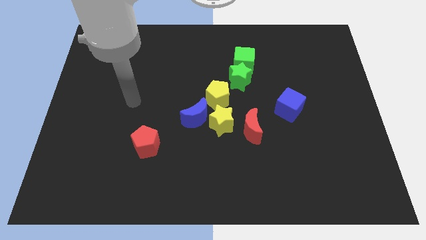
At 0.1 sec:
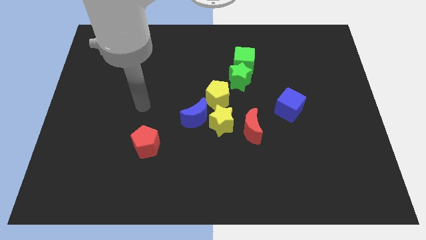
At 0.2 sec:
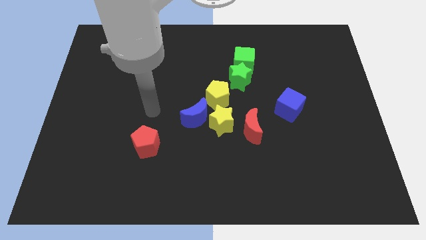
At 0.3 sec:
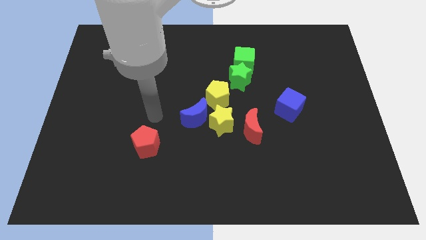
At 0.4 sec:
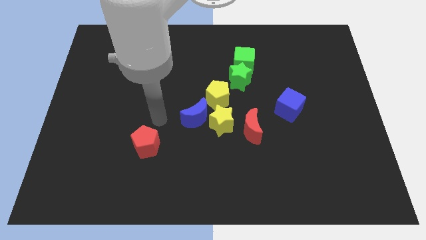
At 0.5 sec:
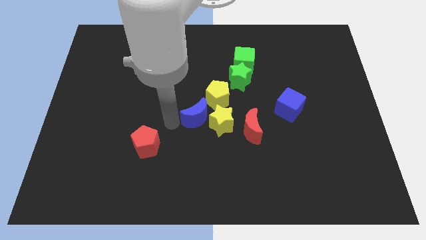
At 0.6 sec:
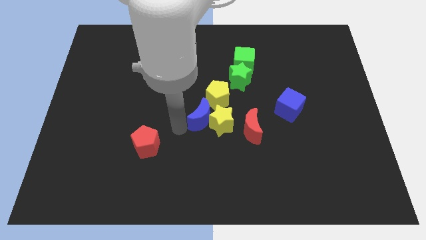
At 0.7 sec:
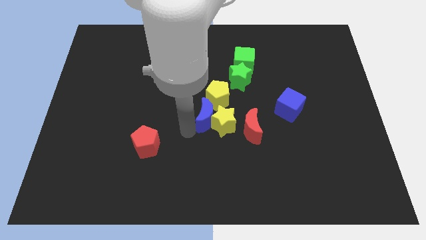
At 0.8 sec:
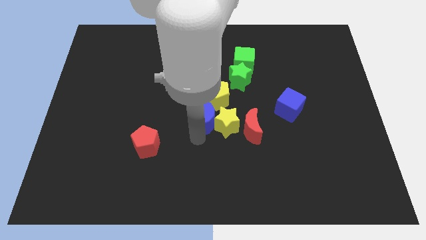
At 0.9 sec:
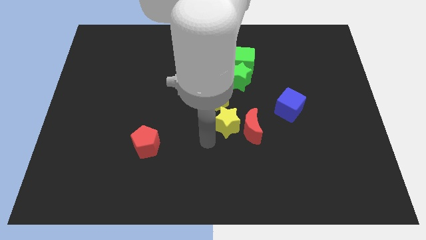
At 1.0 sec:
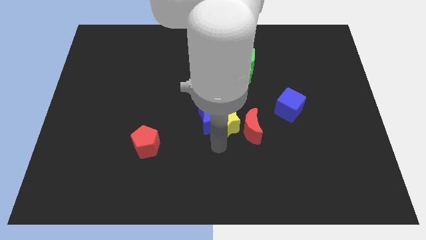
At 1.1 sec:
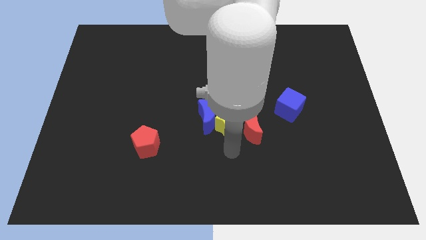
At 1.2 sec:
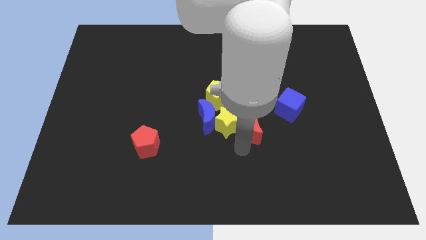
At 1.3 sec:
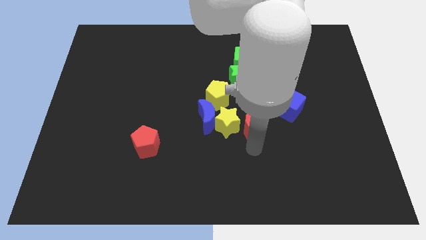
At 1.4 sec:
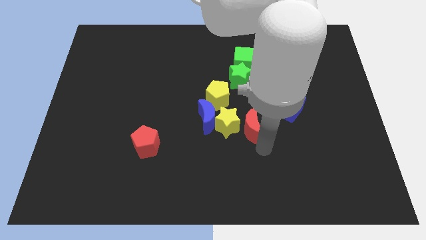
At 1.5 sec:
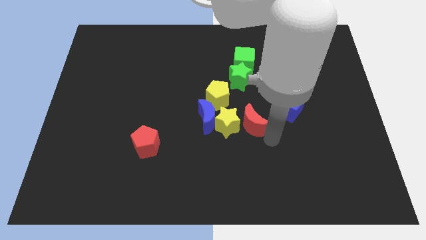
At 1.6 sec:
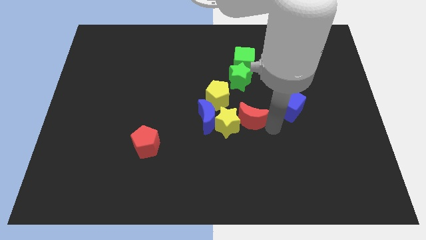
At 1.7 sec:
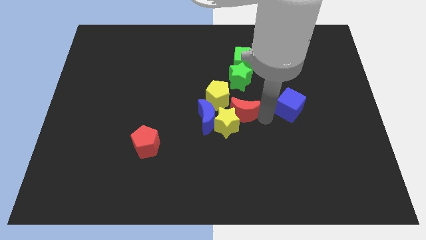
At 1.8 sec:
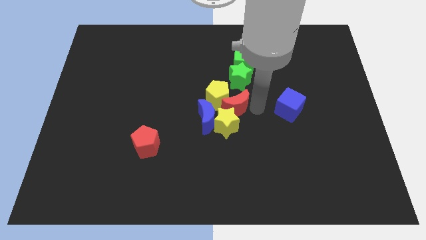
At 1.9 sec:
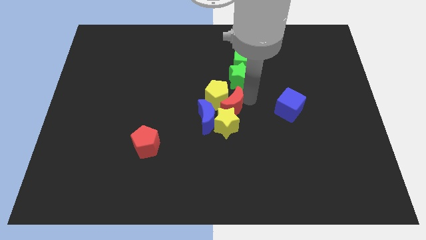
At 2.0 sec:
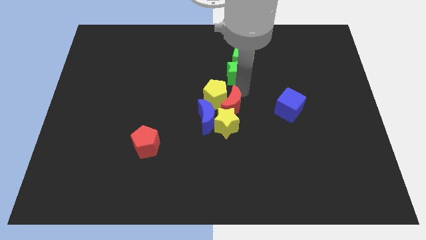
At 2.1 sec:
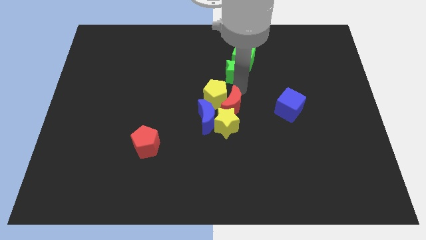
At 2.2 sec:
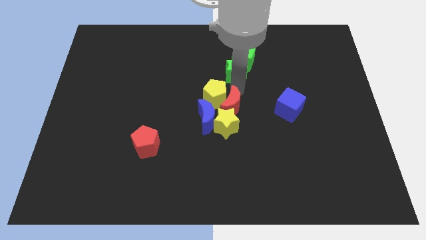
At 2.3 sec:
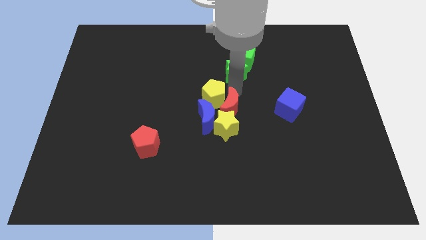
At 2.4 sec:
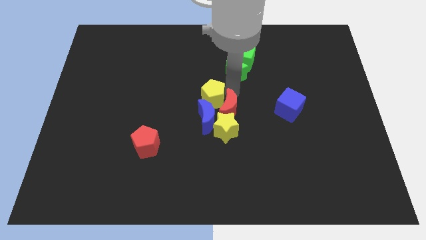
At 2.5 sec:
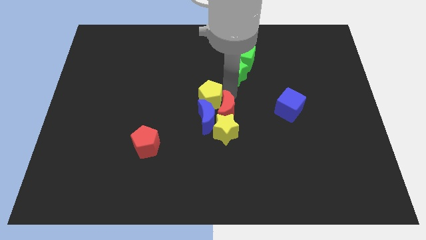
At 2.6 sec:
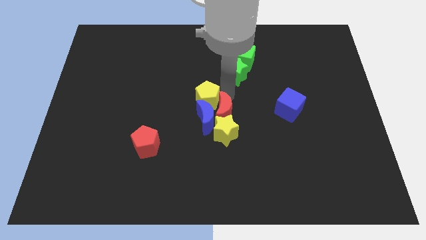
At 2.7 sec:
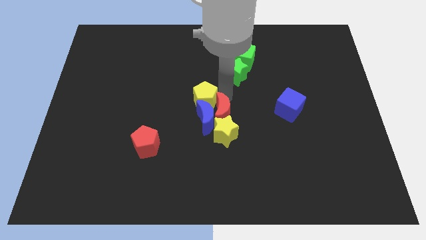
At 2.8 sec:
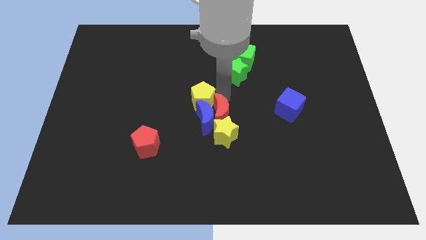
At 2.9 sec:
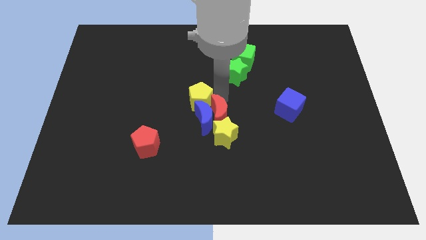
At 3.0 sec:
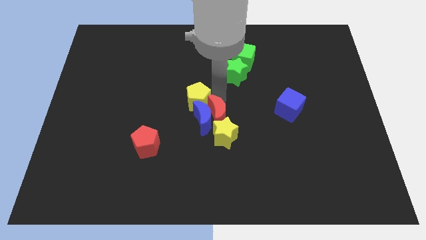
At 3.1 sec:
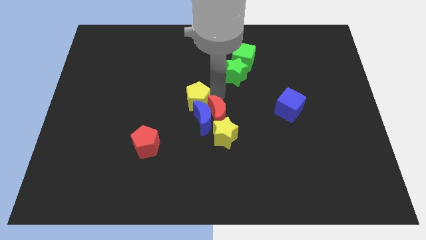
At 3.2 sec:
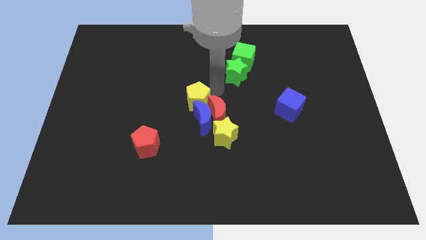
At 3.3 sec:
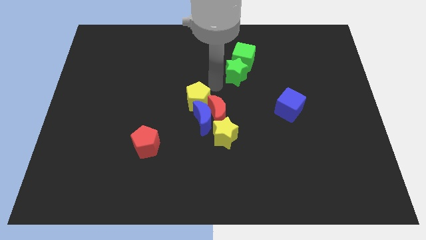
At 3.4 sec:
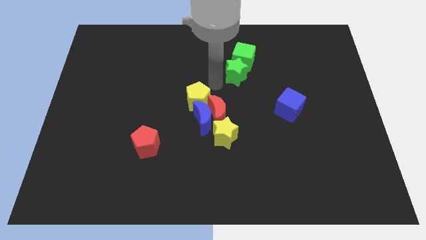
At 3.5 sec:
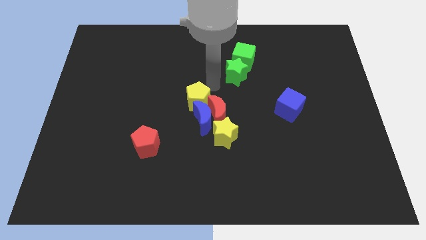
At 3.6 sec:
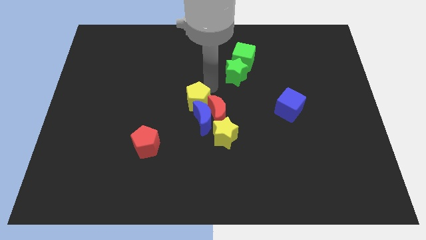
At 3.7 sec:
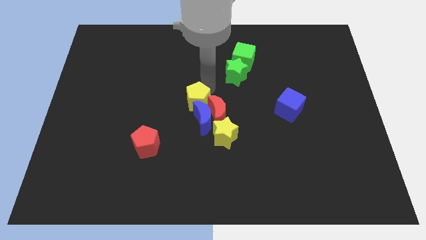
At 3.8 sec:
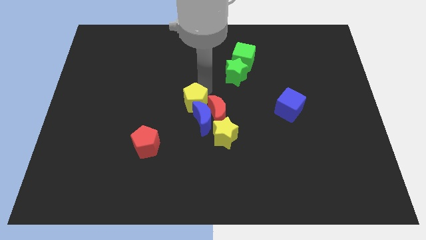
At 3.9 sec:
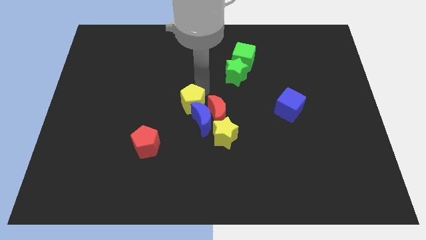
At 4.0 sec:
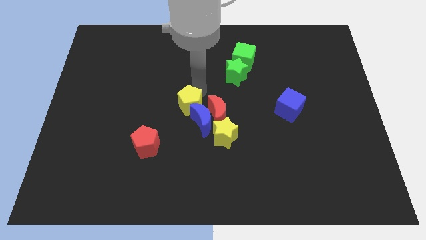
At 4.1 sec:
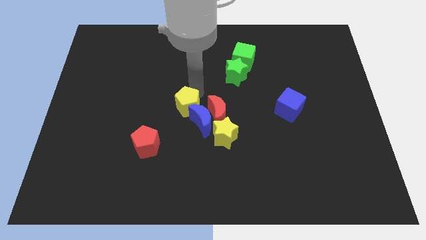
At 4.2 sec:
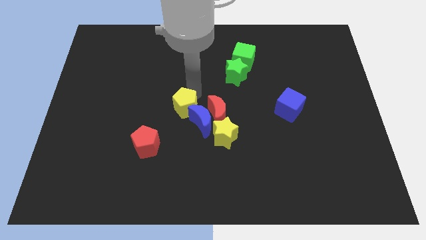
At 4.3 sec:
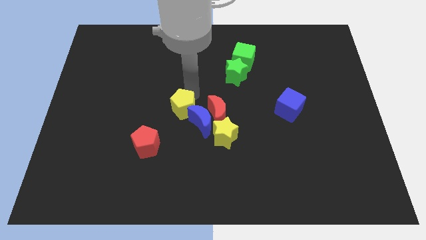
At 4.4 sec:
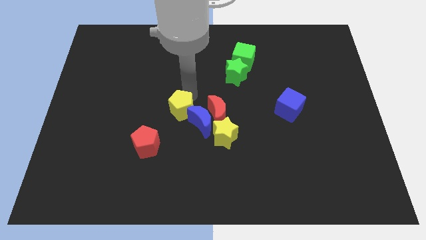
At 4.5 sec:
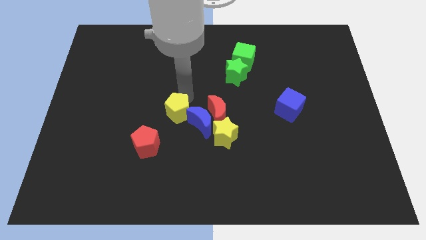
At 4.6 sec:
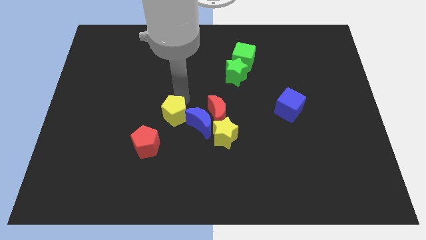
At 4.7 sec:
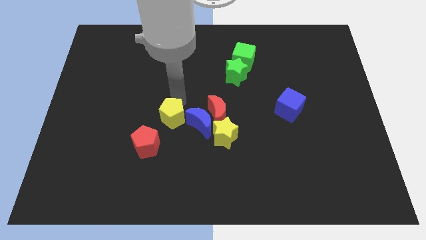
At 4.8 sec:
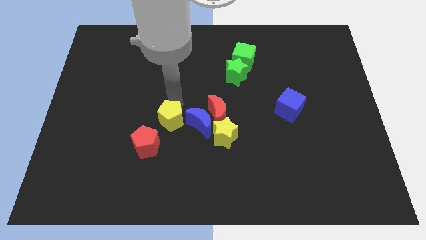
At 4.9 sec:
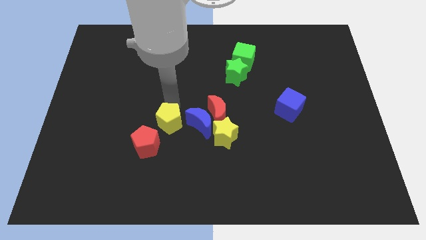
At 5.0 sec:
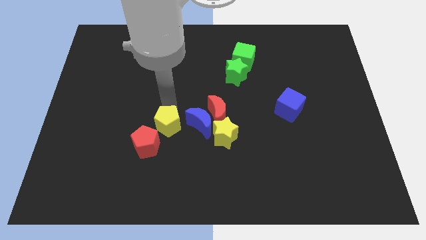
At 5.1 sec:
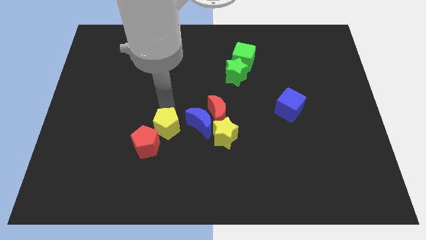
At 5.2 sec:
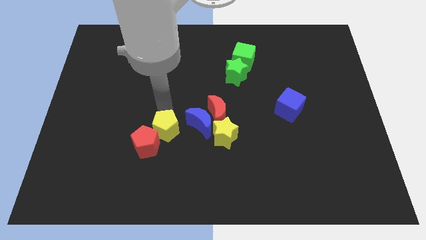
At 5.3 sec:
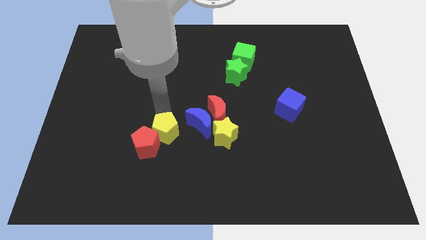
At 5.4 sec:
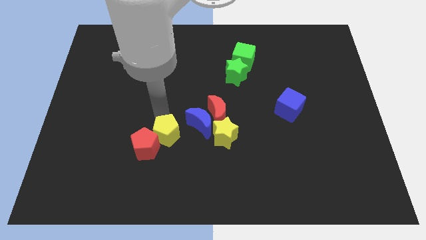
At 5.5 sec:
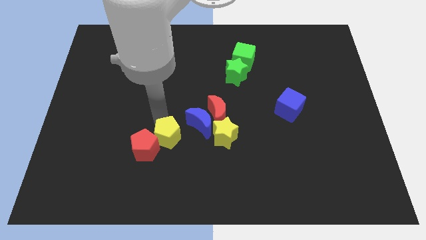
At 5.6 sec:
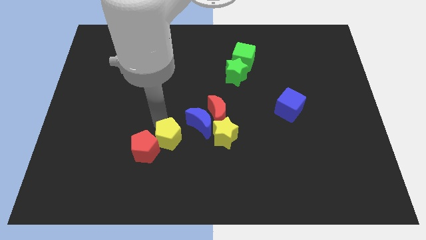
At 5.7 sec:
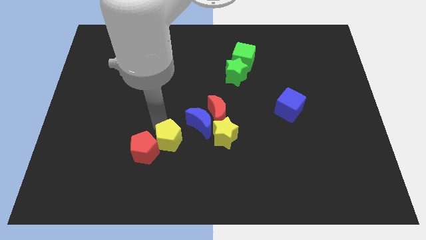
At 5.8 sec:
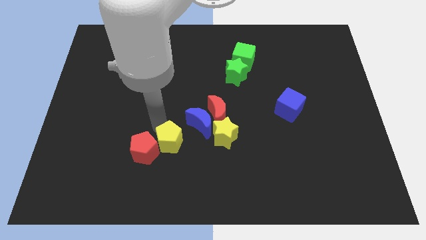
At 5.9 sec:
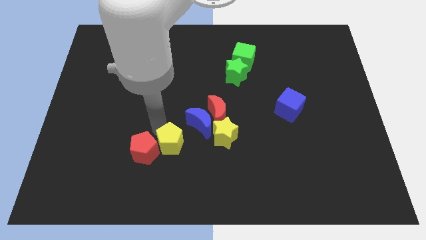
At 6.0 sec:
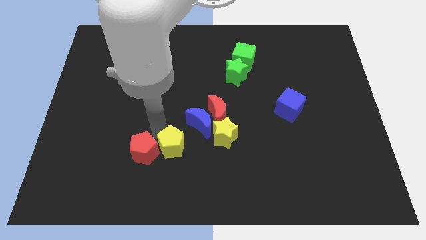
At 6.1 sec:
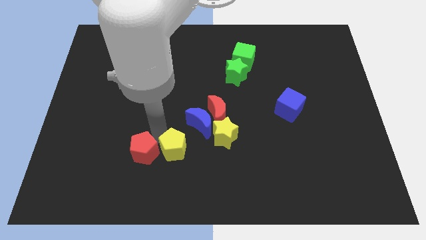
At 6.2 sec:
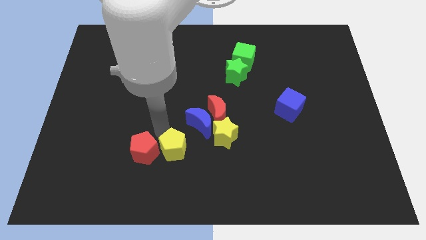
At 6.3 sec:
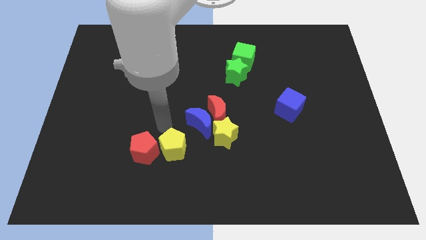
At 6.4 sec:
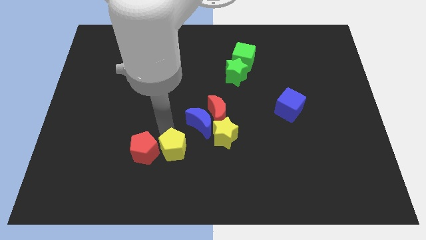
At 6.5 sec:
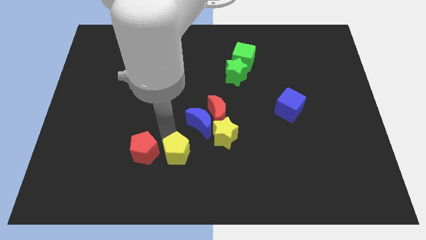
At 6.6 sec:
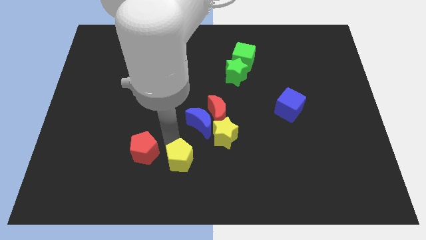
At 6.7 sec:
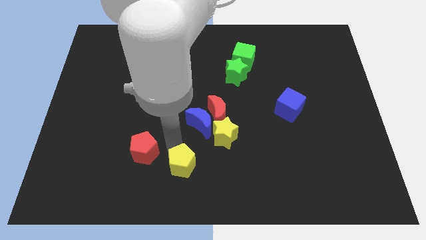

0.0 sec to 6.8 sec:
move the yellow pentagon to the bottom side
